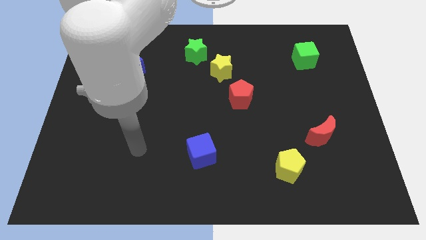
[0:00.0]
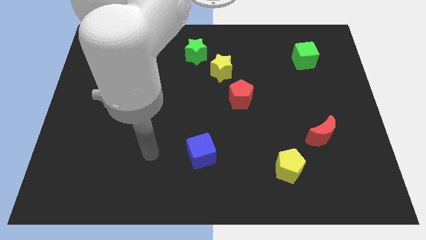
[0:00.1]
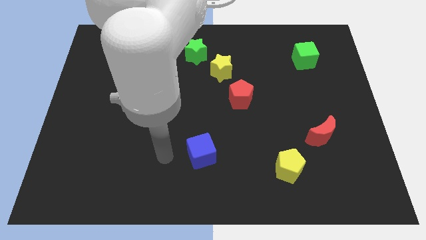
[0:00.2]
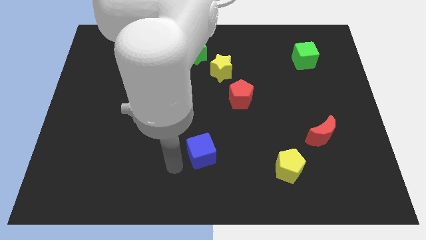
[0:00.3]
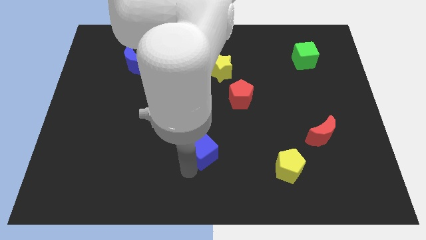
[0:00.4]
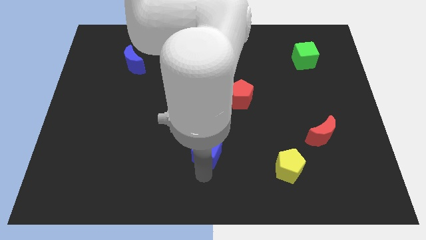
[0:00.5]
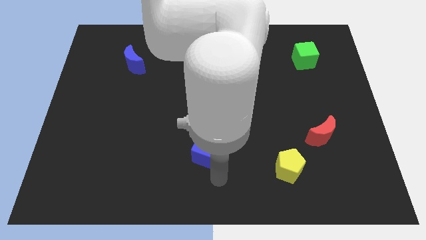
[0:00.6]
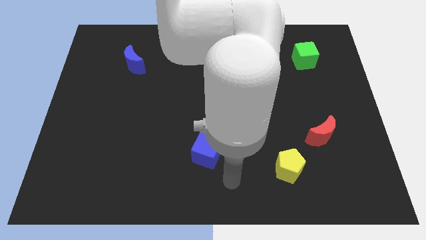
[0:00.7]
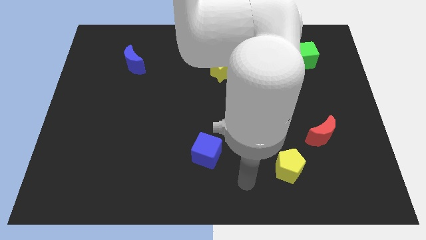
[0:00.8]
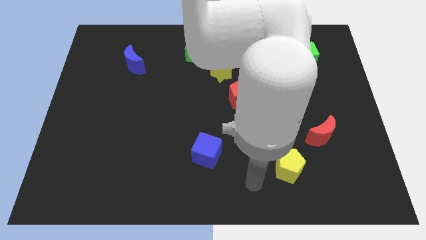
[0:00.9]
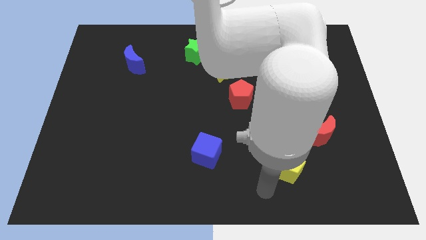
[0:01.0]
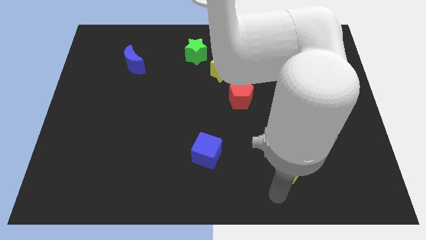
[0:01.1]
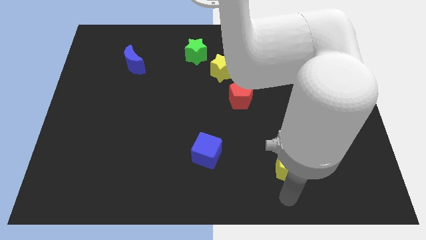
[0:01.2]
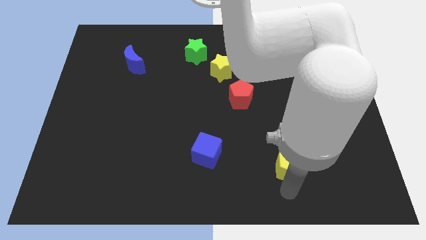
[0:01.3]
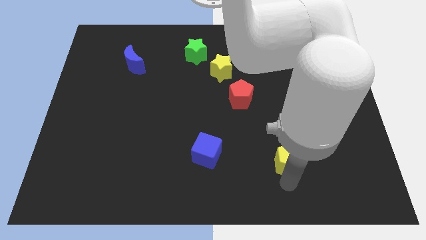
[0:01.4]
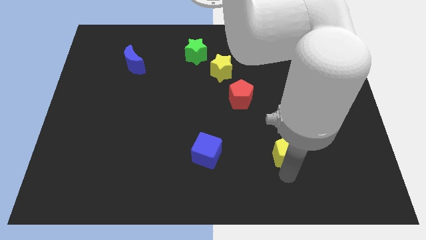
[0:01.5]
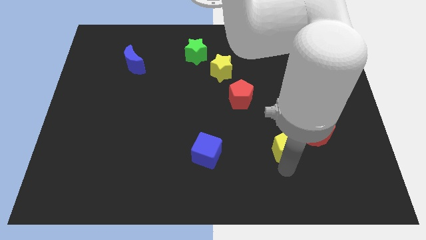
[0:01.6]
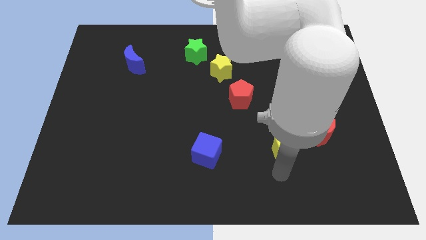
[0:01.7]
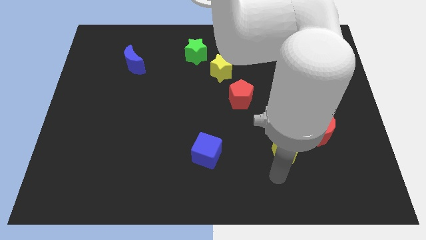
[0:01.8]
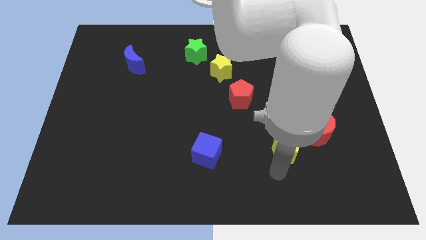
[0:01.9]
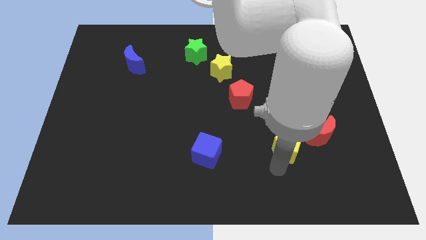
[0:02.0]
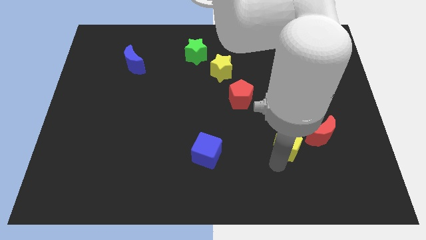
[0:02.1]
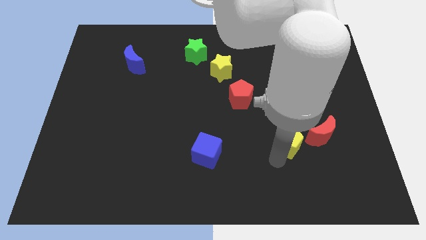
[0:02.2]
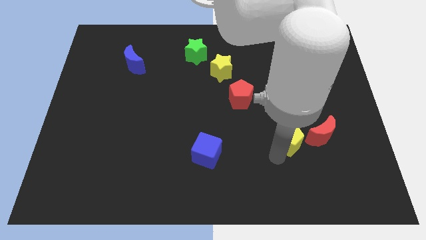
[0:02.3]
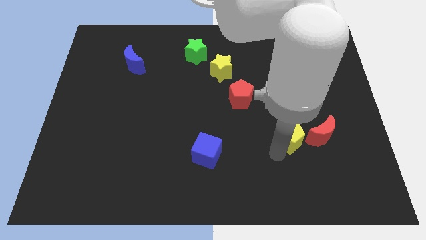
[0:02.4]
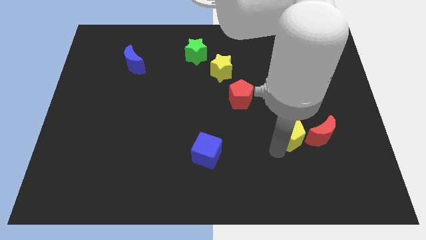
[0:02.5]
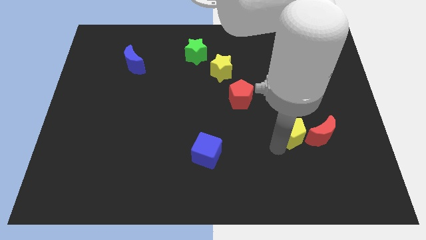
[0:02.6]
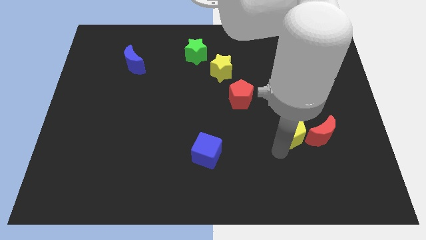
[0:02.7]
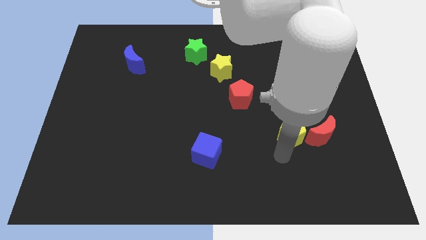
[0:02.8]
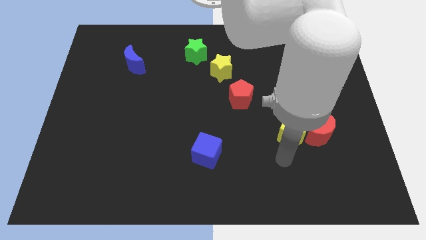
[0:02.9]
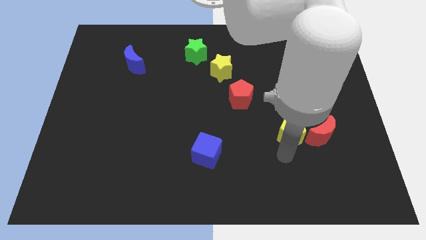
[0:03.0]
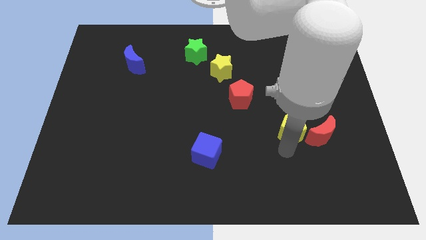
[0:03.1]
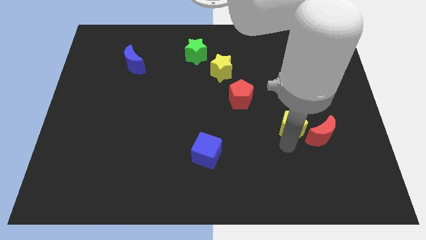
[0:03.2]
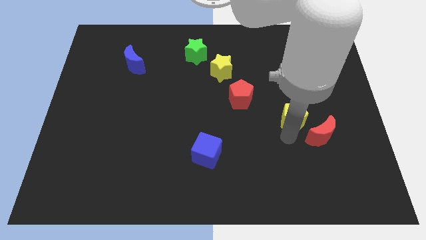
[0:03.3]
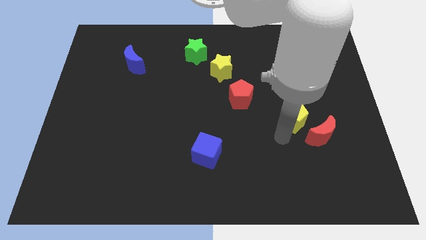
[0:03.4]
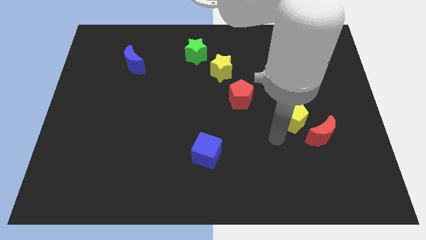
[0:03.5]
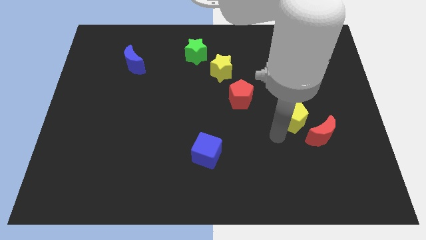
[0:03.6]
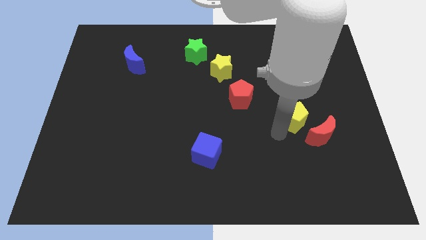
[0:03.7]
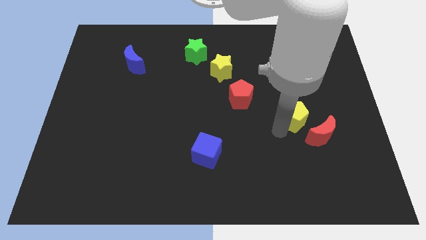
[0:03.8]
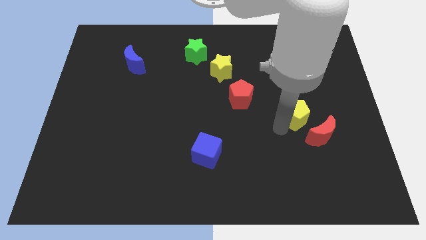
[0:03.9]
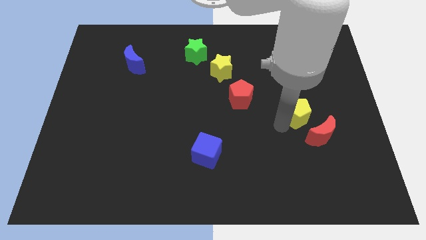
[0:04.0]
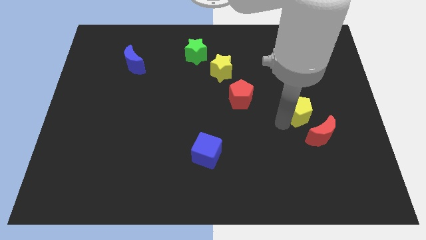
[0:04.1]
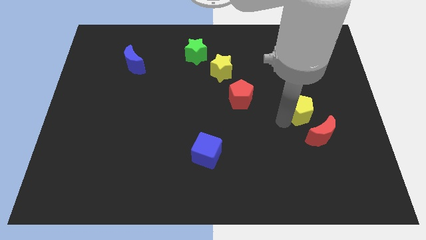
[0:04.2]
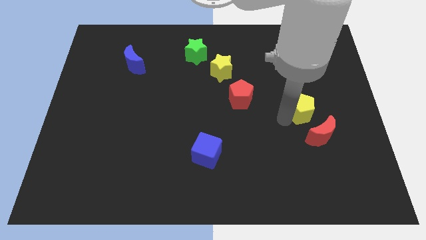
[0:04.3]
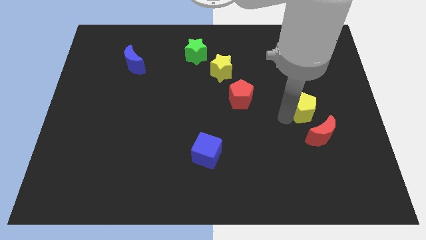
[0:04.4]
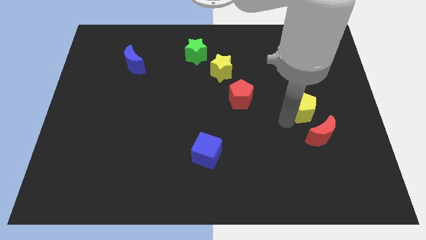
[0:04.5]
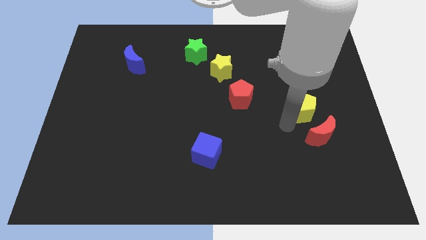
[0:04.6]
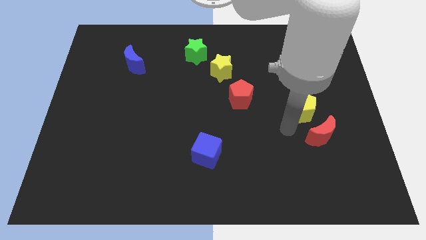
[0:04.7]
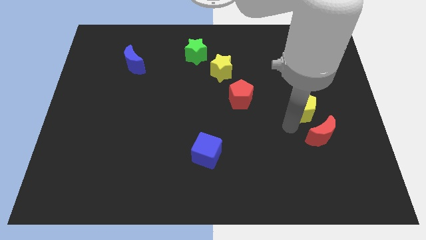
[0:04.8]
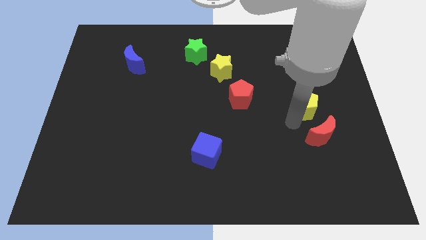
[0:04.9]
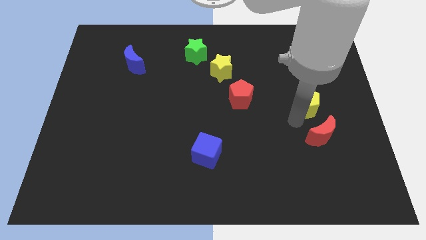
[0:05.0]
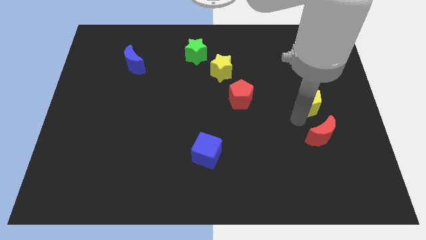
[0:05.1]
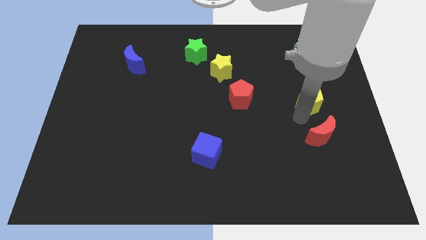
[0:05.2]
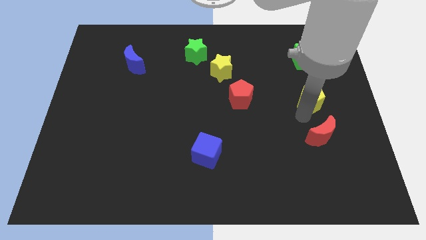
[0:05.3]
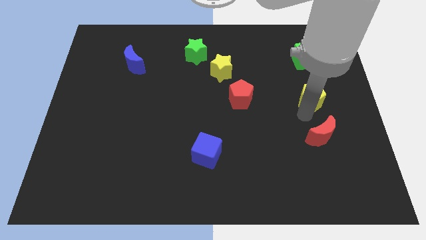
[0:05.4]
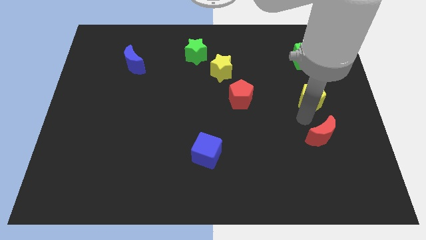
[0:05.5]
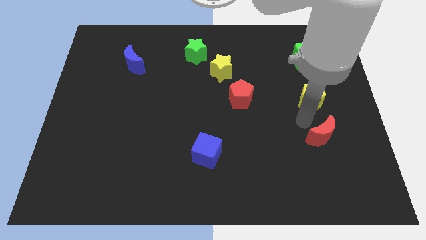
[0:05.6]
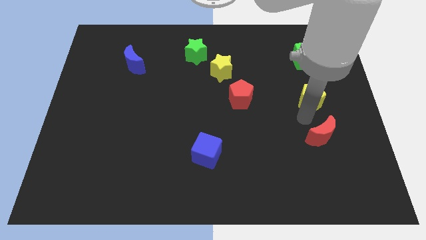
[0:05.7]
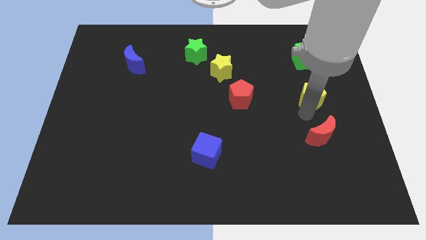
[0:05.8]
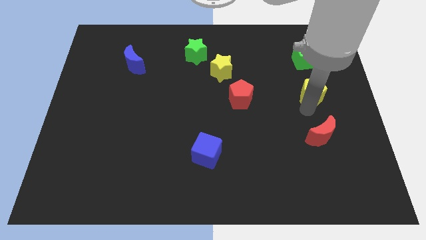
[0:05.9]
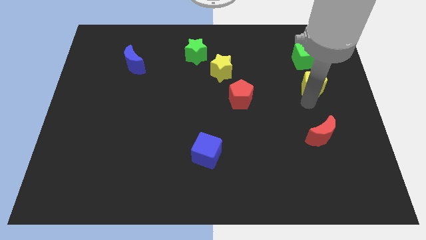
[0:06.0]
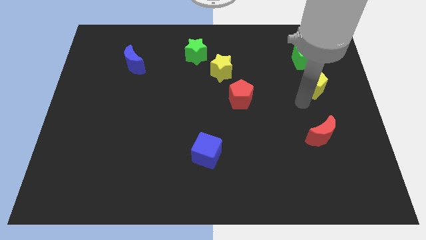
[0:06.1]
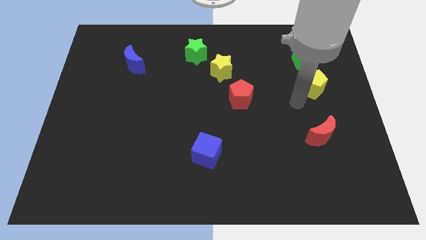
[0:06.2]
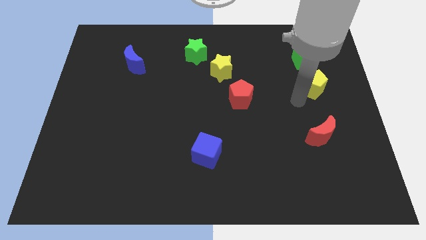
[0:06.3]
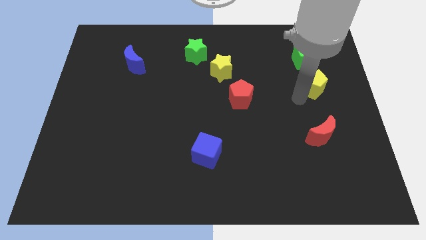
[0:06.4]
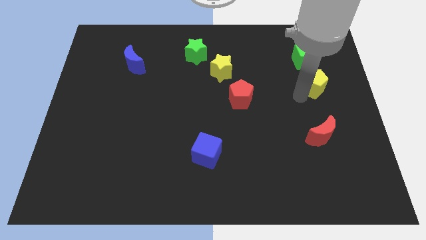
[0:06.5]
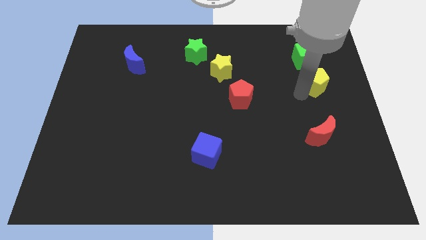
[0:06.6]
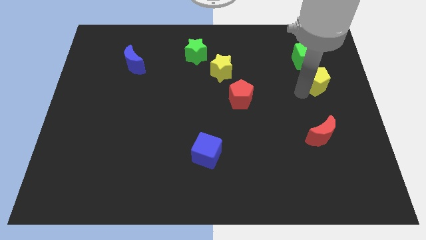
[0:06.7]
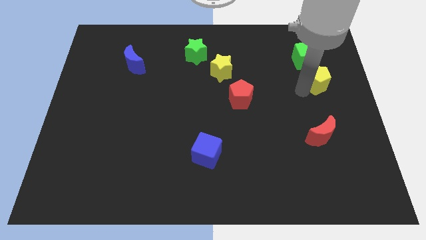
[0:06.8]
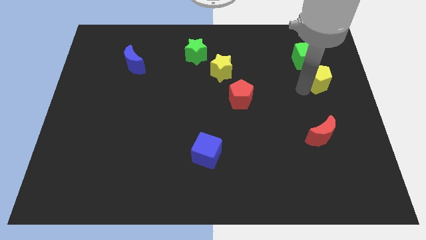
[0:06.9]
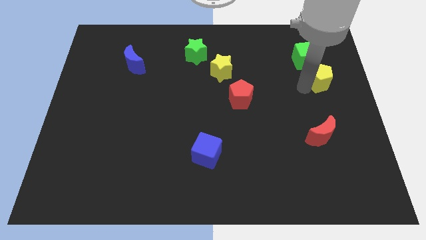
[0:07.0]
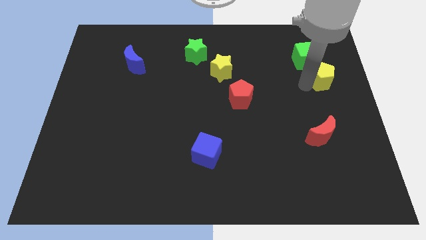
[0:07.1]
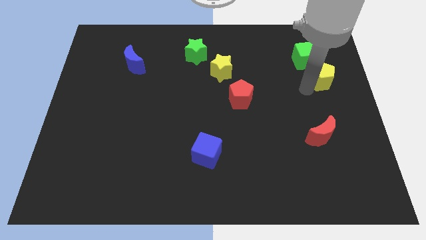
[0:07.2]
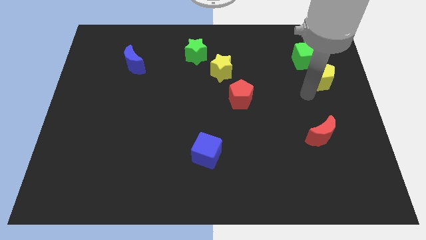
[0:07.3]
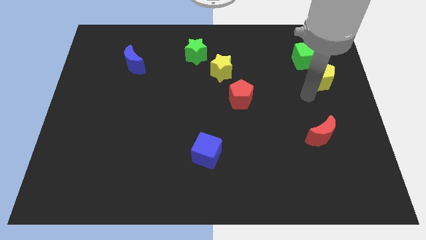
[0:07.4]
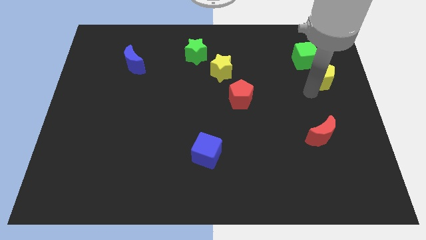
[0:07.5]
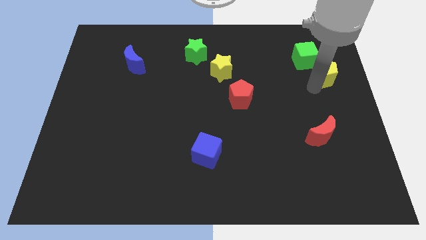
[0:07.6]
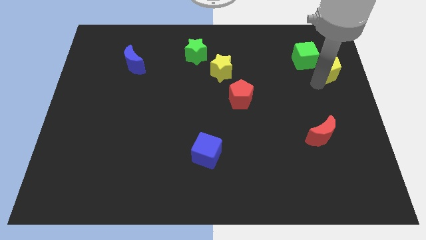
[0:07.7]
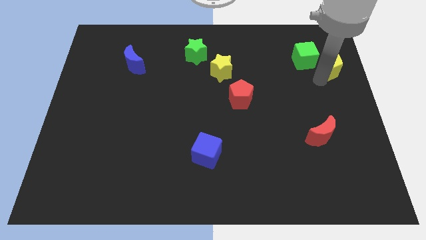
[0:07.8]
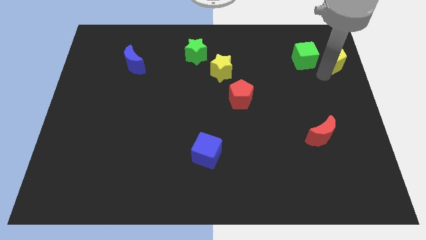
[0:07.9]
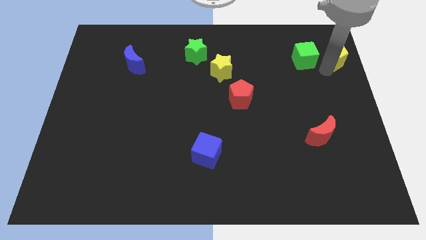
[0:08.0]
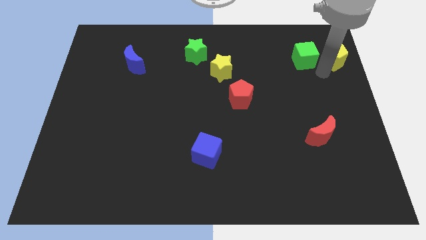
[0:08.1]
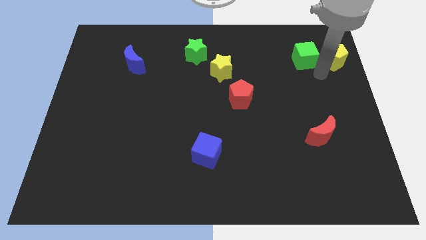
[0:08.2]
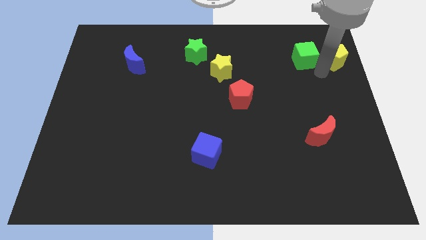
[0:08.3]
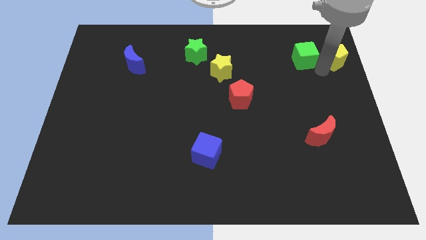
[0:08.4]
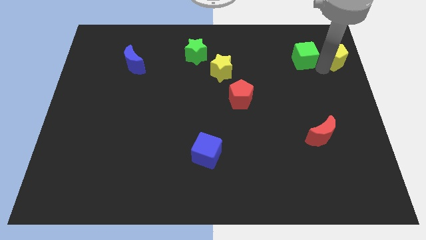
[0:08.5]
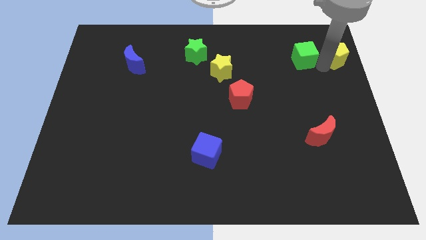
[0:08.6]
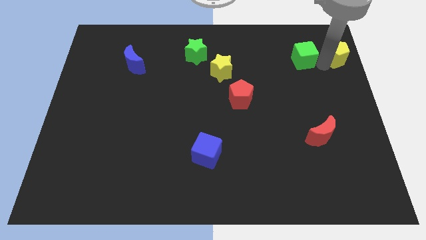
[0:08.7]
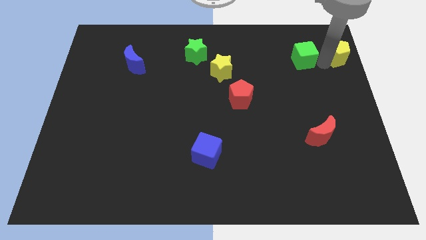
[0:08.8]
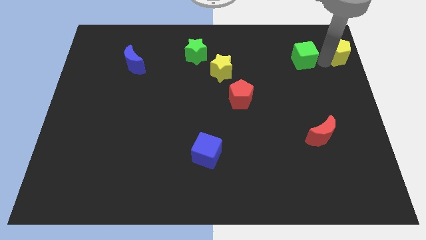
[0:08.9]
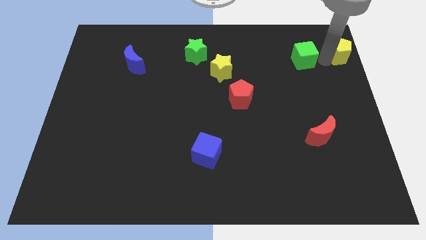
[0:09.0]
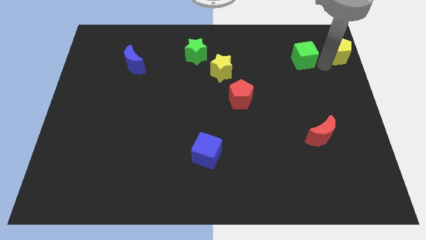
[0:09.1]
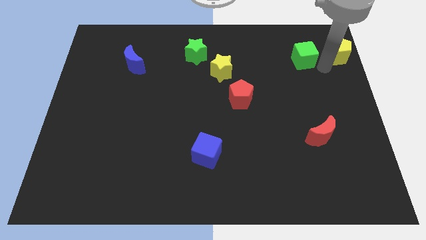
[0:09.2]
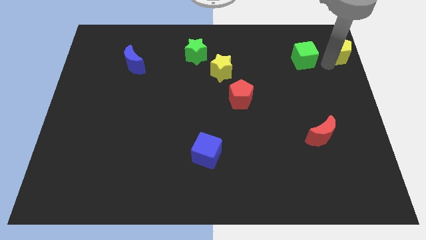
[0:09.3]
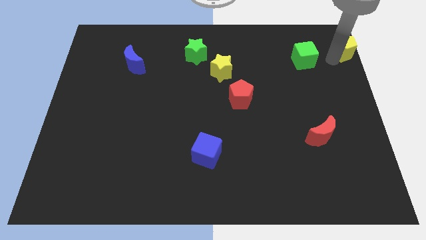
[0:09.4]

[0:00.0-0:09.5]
move the yellow pentagon to the top right corner
